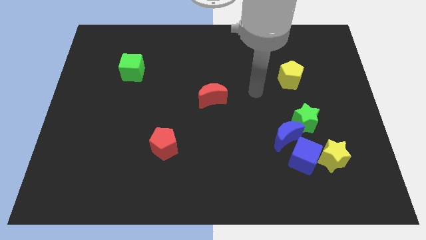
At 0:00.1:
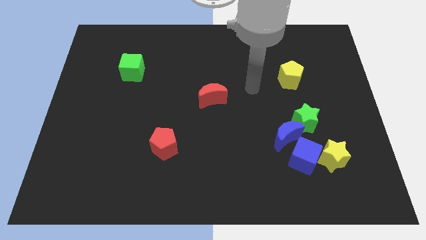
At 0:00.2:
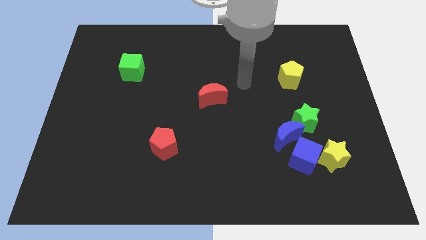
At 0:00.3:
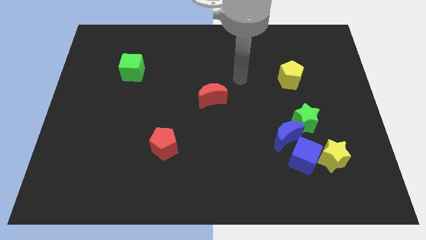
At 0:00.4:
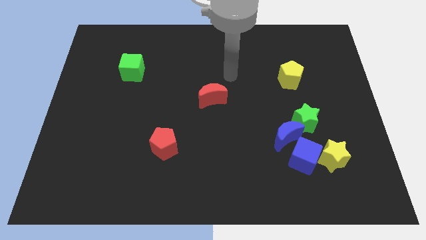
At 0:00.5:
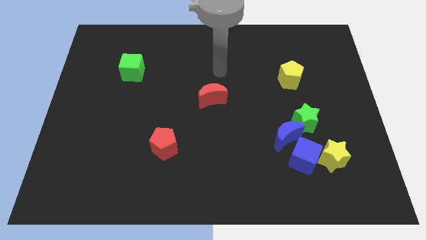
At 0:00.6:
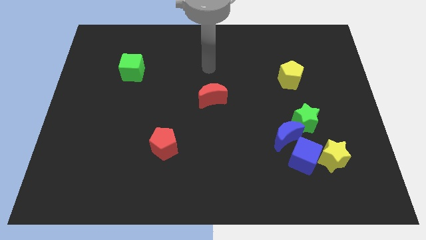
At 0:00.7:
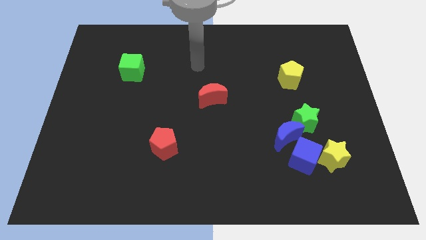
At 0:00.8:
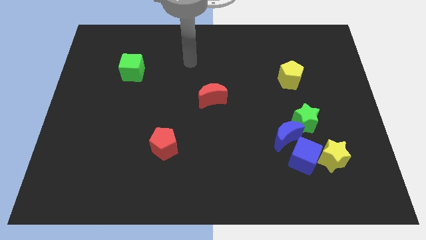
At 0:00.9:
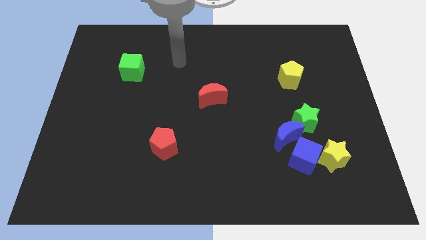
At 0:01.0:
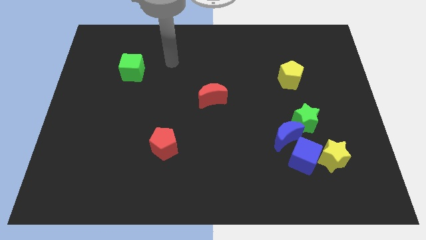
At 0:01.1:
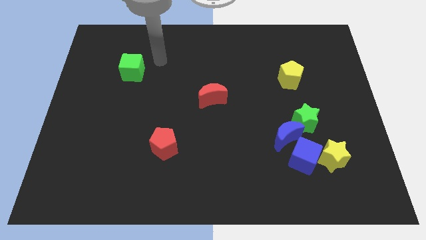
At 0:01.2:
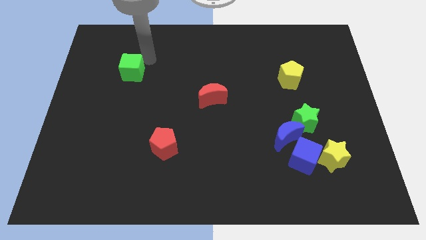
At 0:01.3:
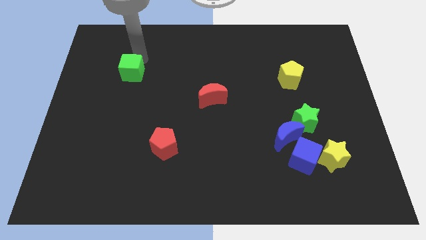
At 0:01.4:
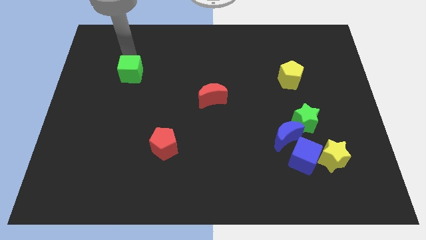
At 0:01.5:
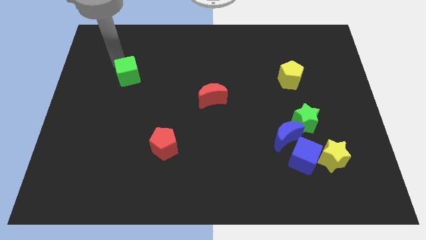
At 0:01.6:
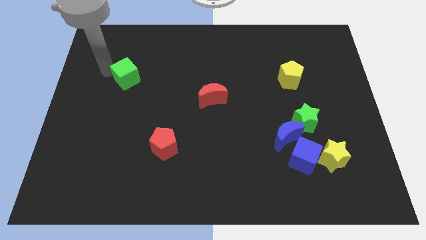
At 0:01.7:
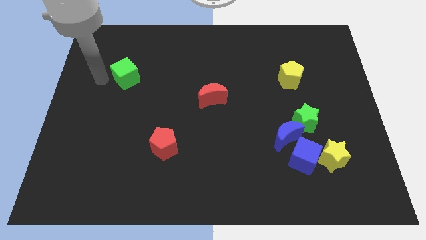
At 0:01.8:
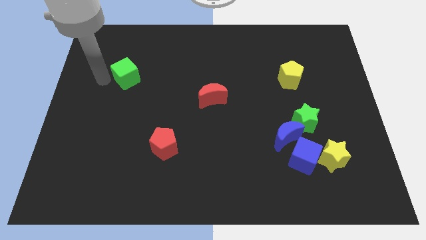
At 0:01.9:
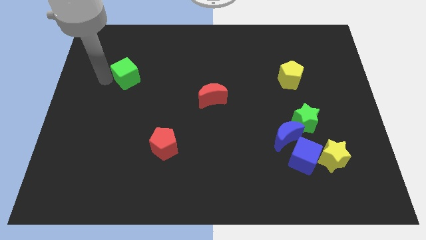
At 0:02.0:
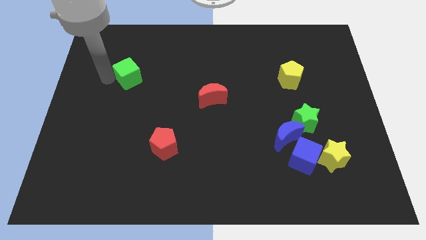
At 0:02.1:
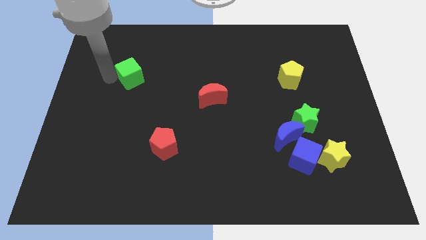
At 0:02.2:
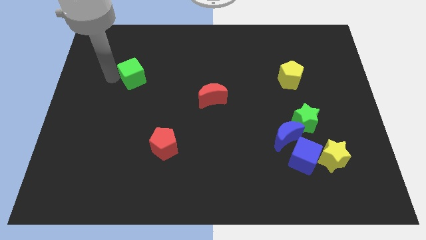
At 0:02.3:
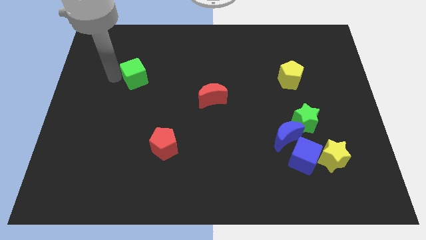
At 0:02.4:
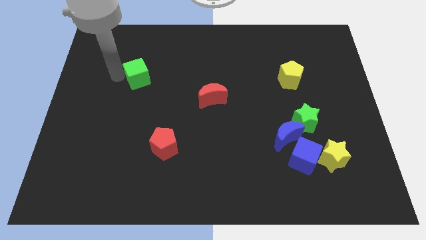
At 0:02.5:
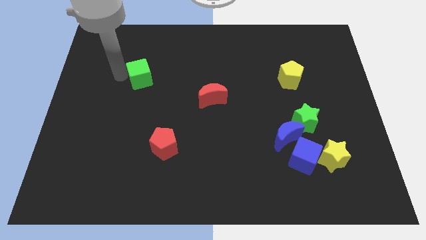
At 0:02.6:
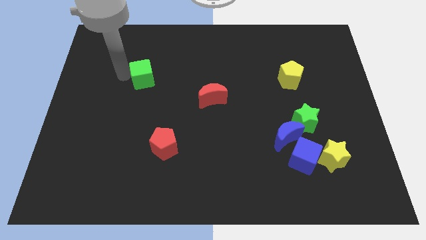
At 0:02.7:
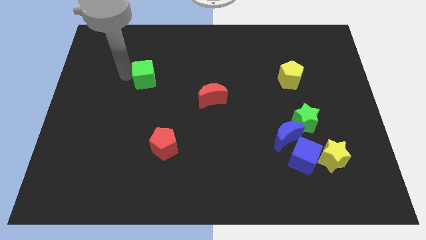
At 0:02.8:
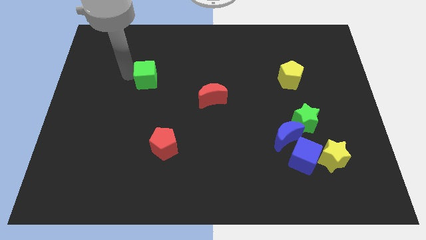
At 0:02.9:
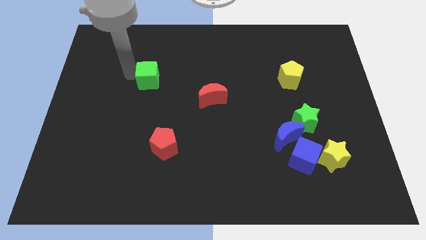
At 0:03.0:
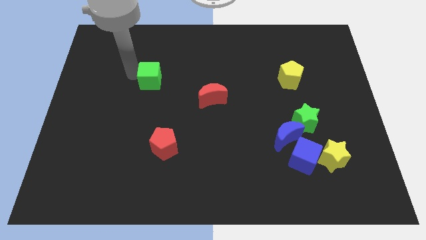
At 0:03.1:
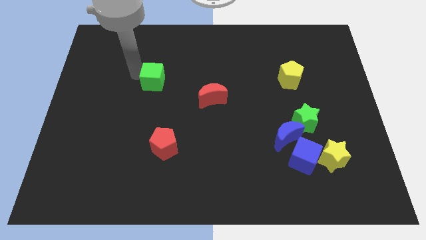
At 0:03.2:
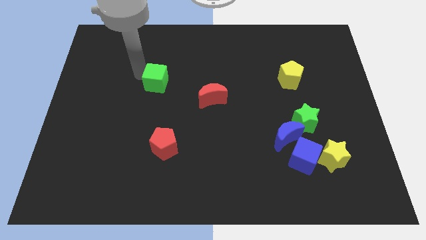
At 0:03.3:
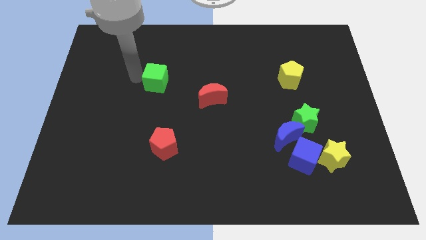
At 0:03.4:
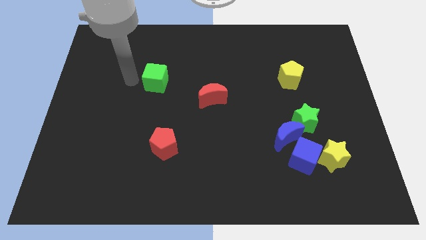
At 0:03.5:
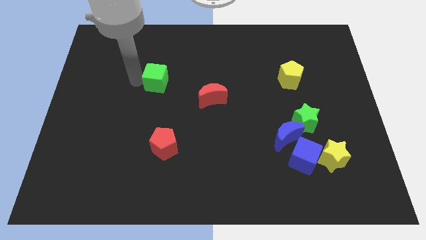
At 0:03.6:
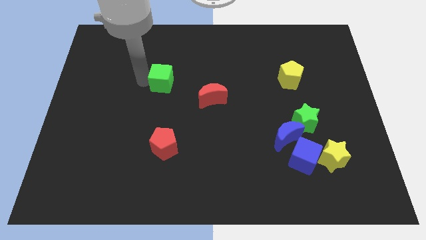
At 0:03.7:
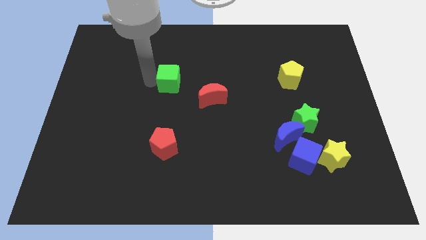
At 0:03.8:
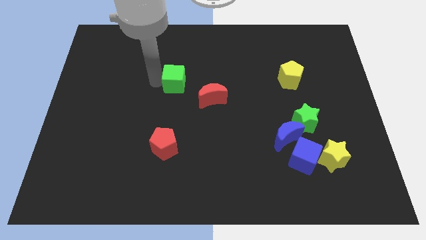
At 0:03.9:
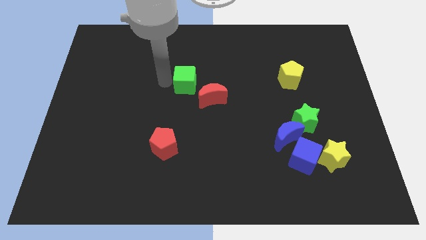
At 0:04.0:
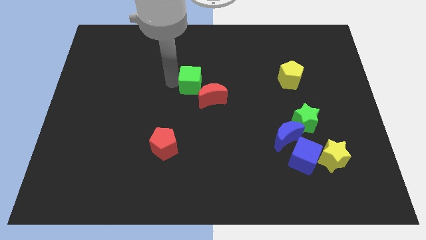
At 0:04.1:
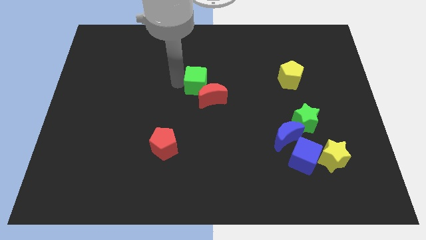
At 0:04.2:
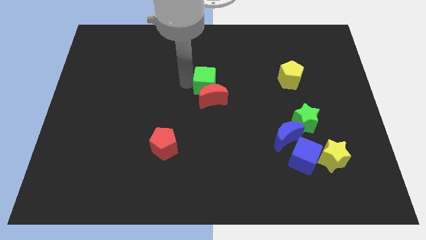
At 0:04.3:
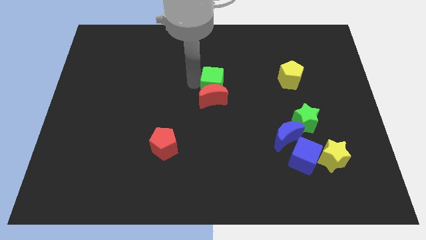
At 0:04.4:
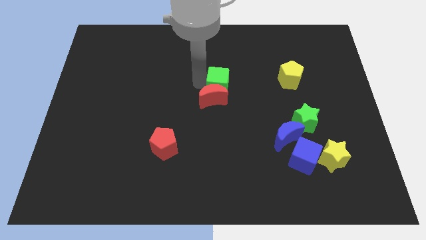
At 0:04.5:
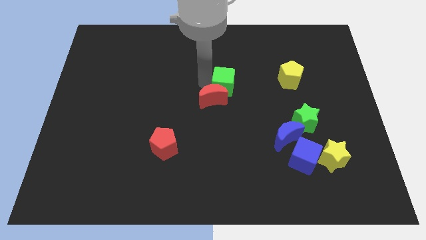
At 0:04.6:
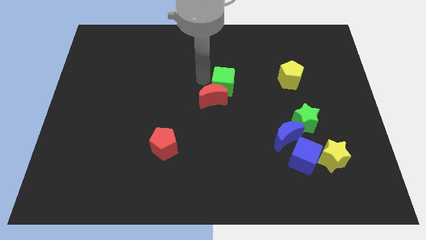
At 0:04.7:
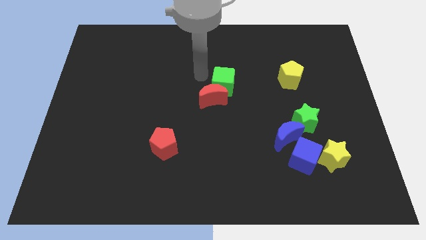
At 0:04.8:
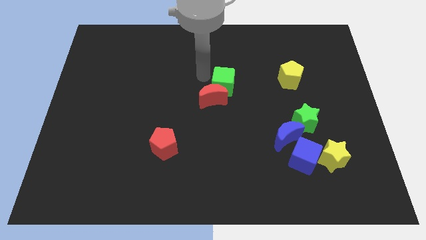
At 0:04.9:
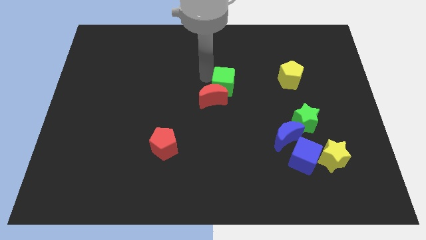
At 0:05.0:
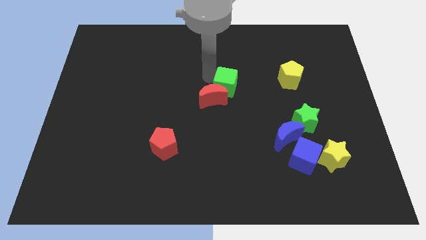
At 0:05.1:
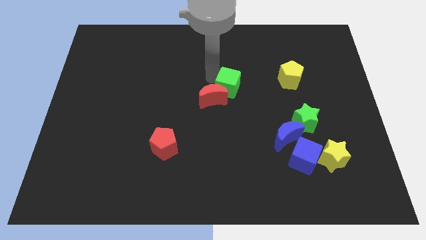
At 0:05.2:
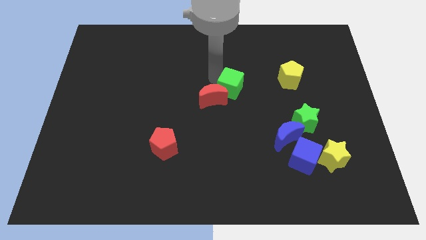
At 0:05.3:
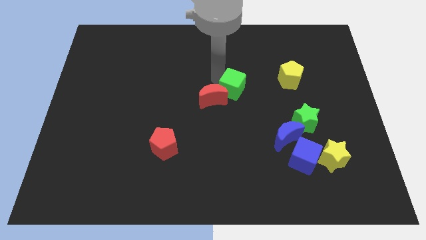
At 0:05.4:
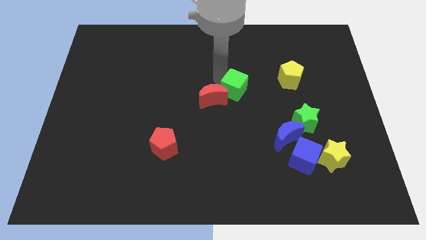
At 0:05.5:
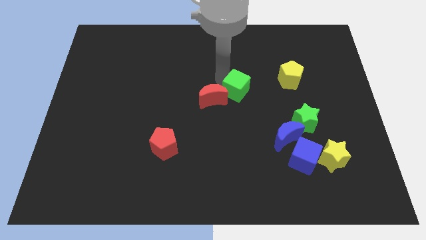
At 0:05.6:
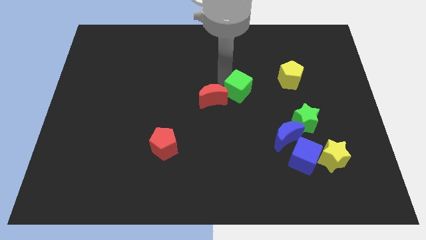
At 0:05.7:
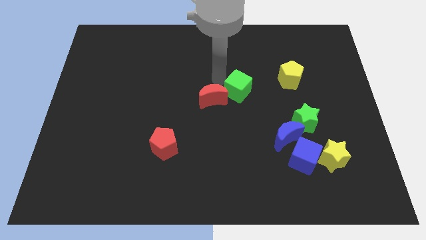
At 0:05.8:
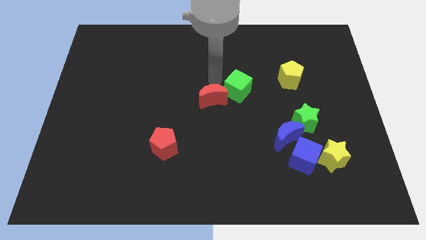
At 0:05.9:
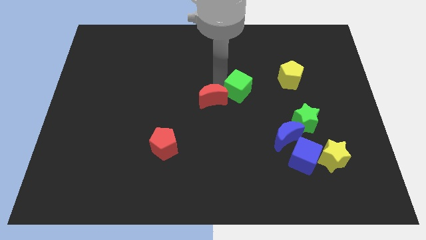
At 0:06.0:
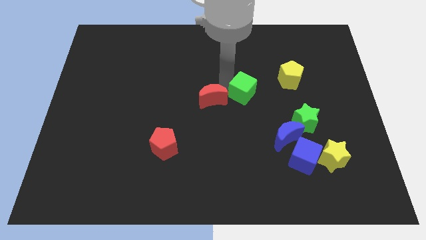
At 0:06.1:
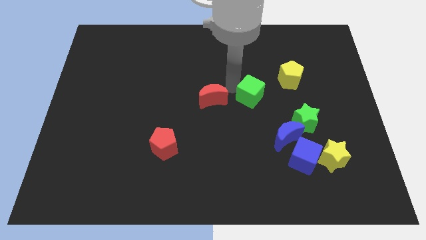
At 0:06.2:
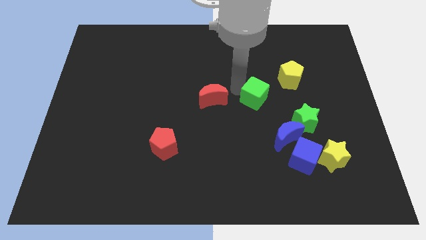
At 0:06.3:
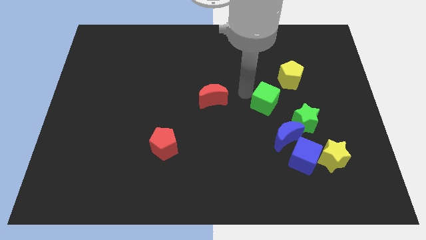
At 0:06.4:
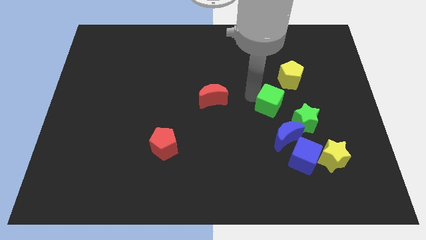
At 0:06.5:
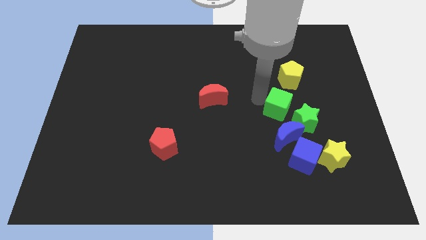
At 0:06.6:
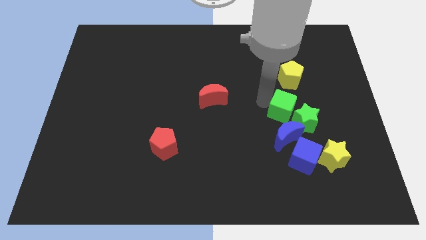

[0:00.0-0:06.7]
put the green cube next to the green star

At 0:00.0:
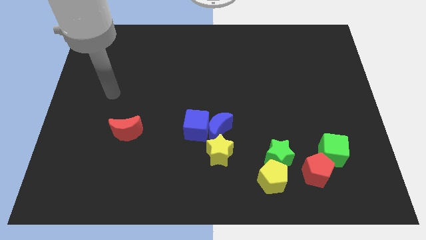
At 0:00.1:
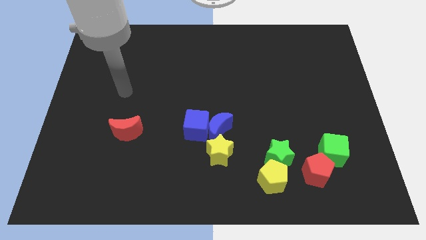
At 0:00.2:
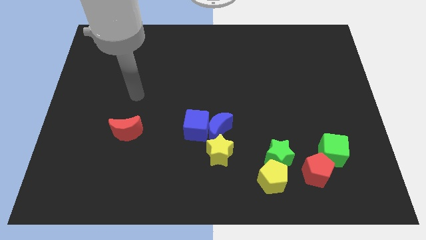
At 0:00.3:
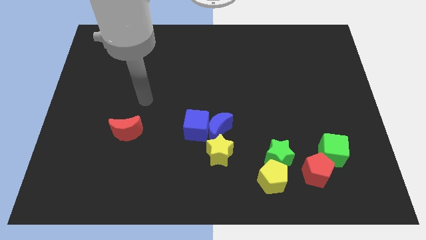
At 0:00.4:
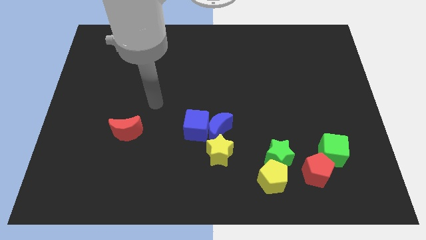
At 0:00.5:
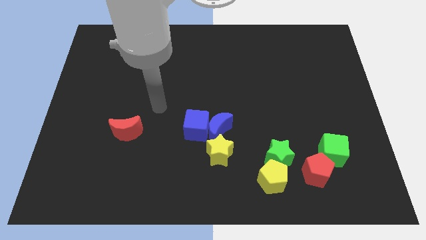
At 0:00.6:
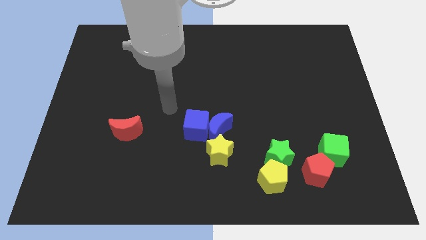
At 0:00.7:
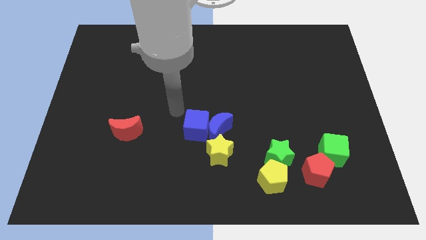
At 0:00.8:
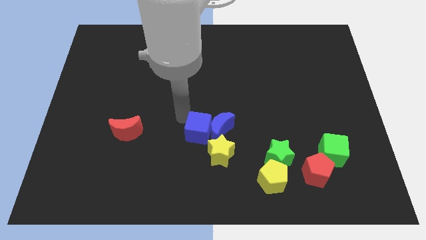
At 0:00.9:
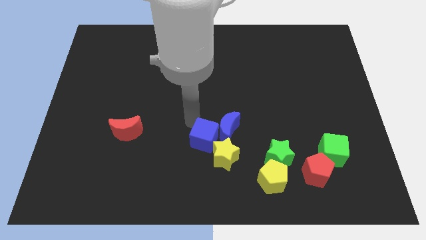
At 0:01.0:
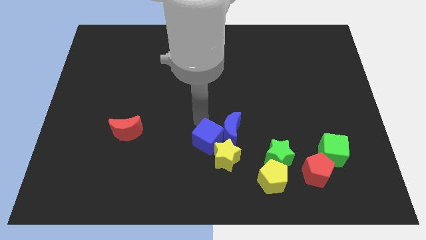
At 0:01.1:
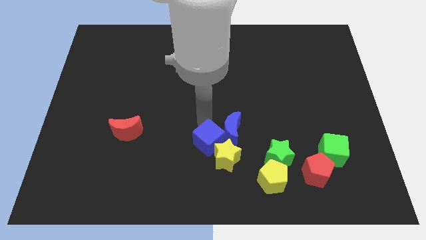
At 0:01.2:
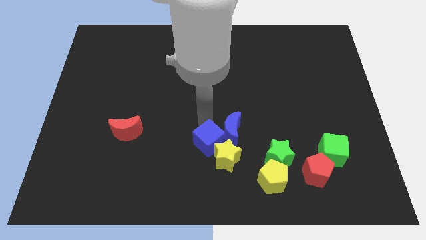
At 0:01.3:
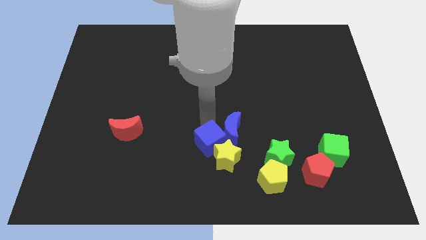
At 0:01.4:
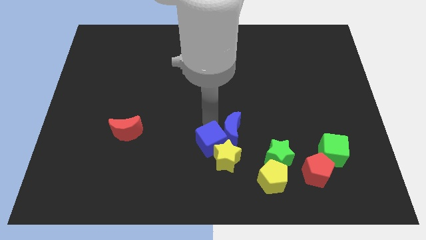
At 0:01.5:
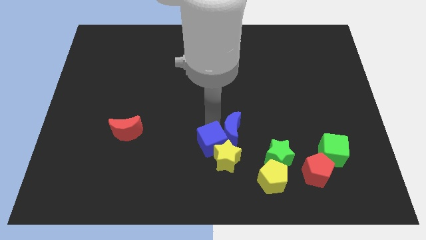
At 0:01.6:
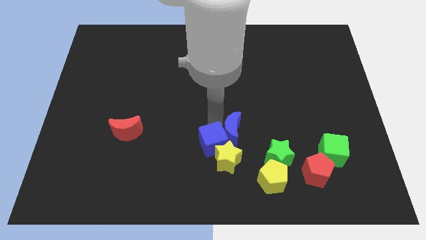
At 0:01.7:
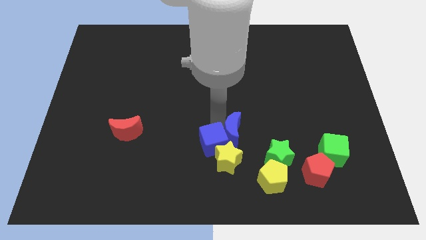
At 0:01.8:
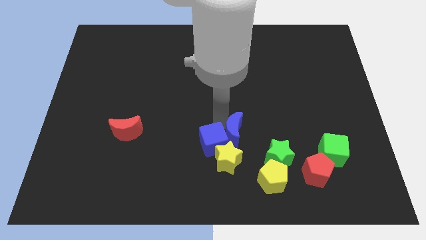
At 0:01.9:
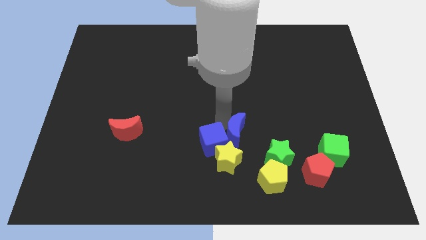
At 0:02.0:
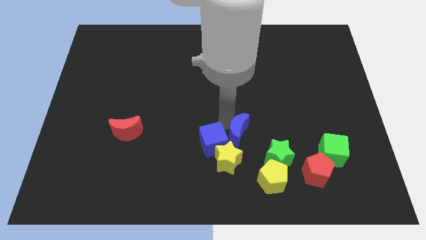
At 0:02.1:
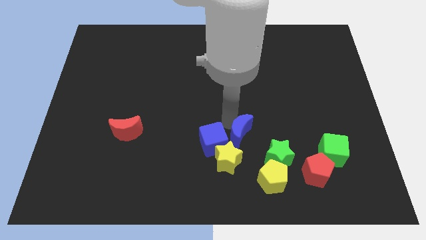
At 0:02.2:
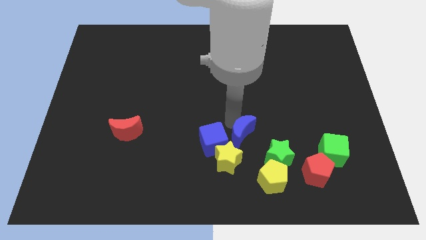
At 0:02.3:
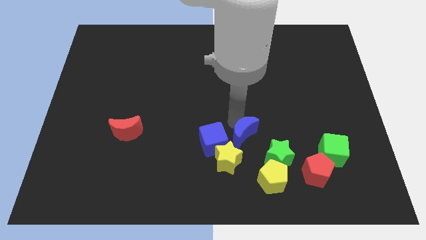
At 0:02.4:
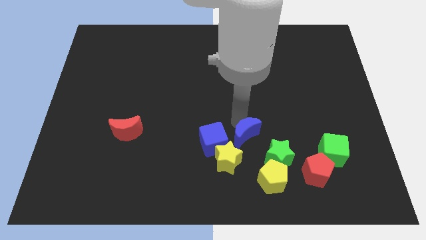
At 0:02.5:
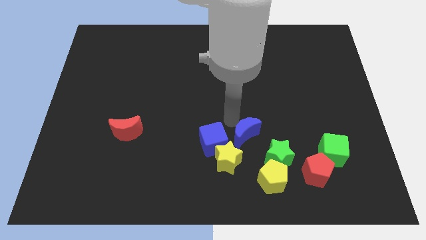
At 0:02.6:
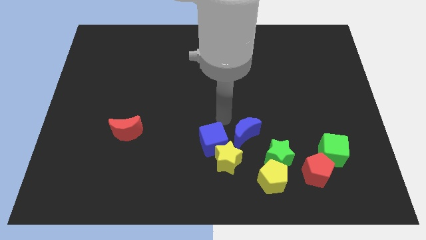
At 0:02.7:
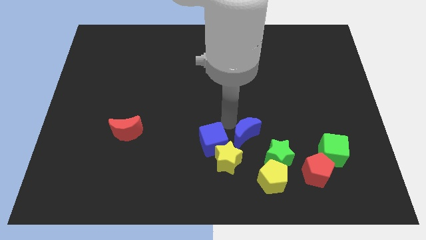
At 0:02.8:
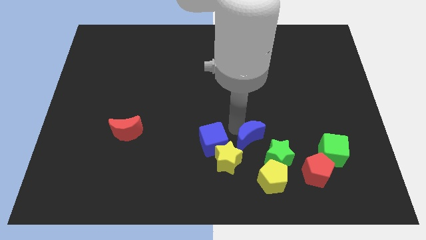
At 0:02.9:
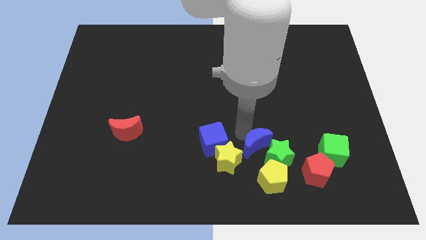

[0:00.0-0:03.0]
push the blue moon towards the green star
